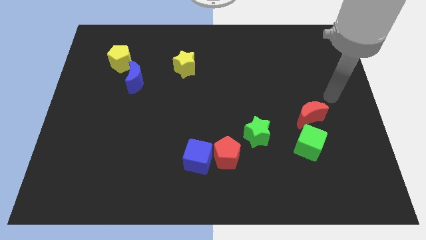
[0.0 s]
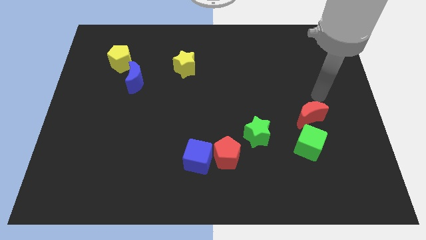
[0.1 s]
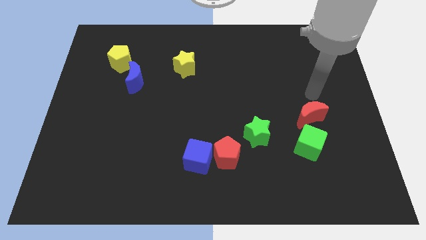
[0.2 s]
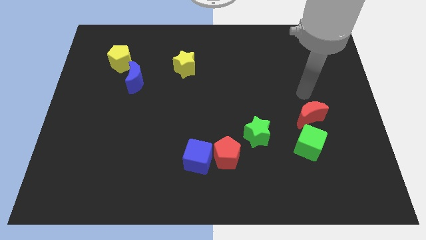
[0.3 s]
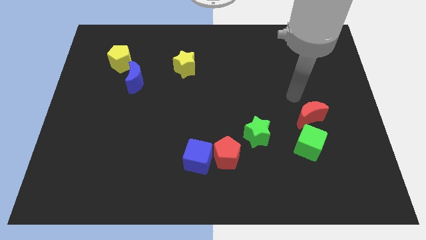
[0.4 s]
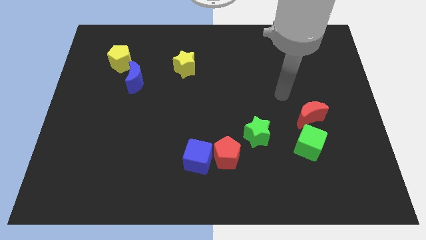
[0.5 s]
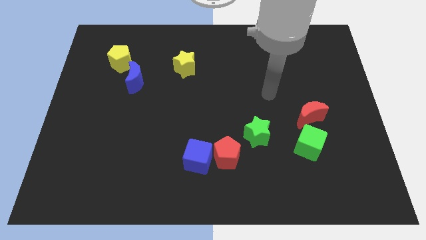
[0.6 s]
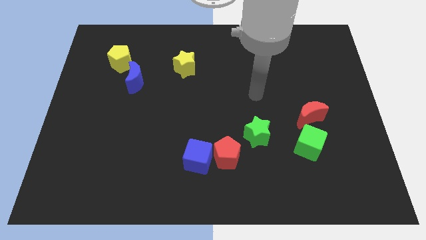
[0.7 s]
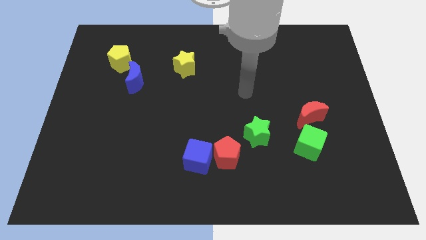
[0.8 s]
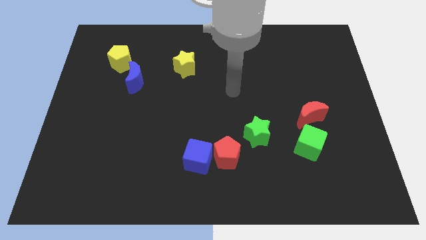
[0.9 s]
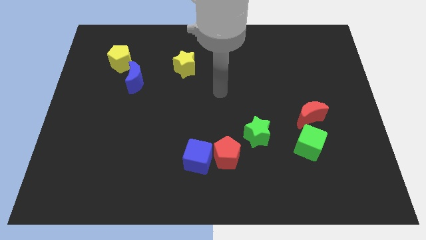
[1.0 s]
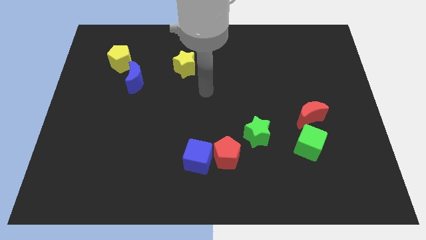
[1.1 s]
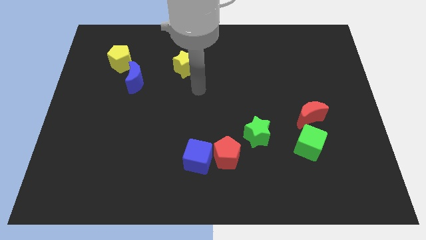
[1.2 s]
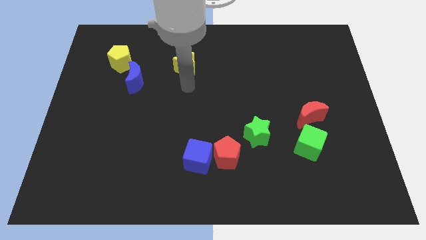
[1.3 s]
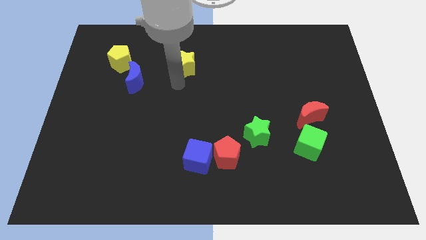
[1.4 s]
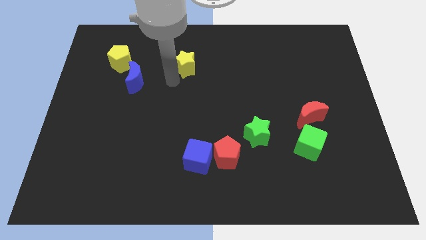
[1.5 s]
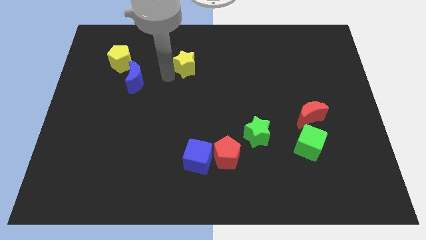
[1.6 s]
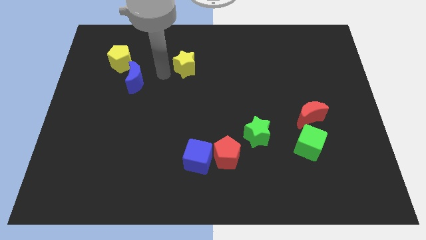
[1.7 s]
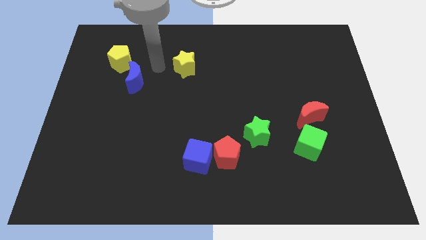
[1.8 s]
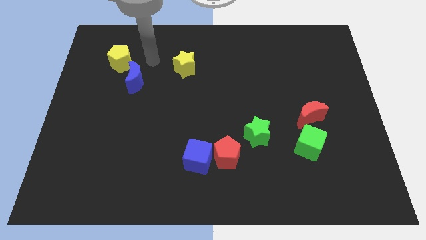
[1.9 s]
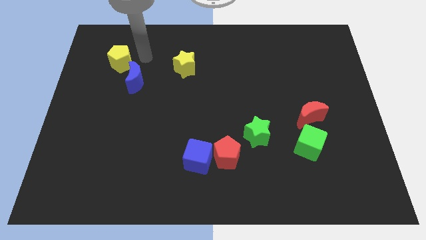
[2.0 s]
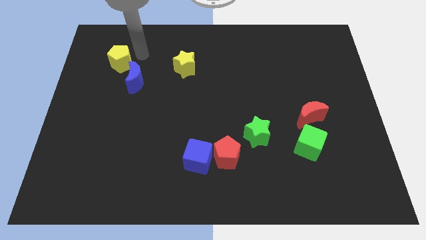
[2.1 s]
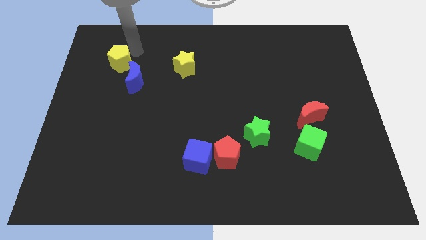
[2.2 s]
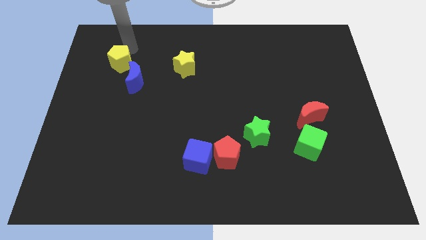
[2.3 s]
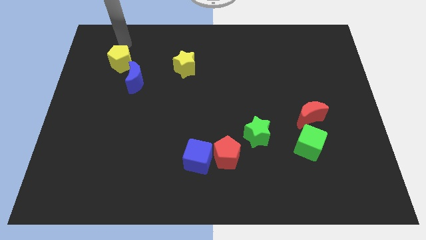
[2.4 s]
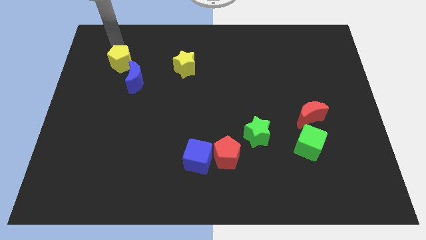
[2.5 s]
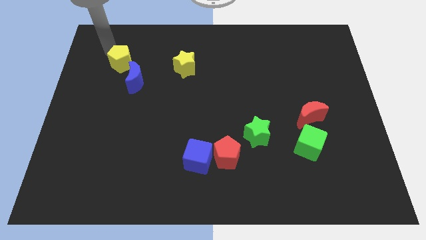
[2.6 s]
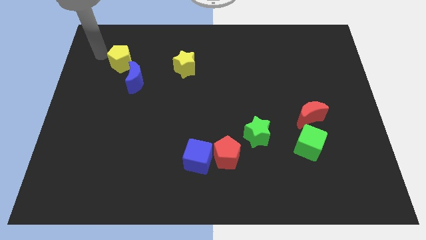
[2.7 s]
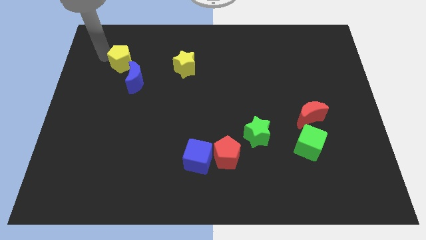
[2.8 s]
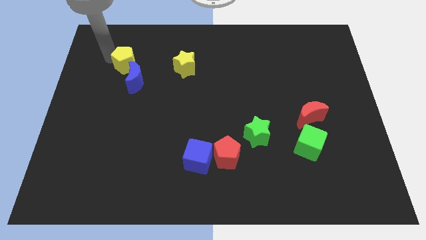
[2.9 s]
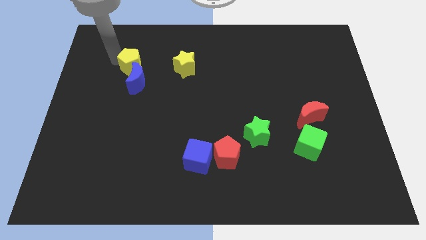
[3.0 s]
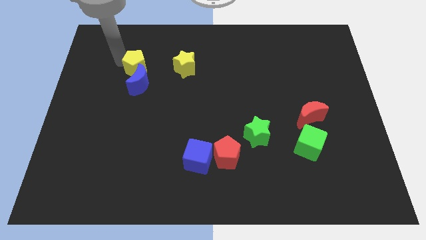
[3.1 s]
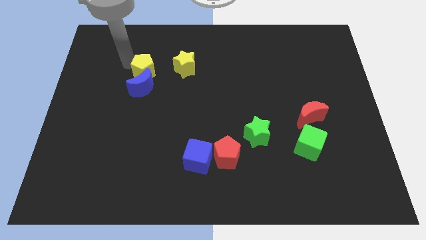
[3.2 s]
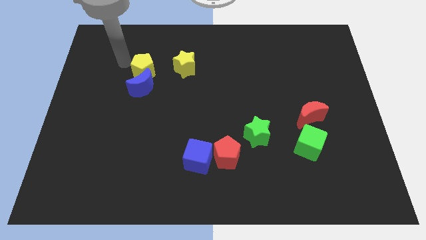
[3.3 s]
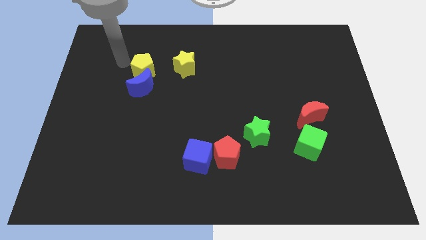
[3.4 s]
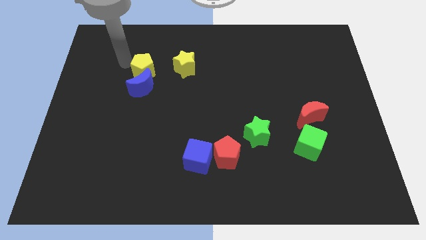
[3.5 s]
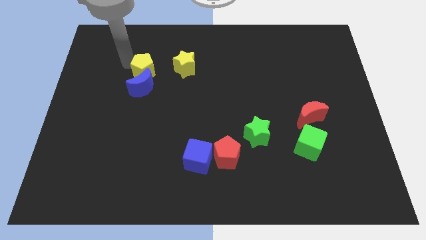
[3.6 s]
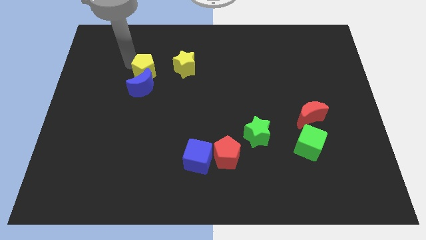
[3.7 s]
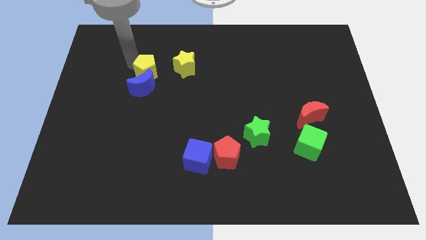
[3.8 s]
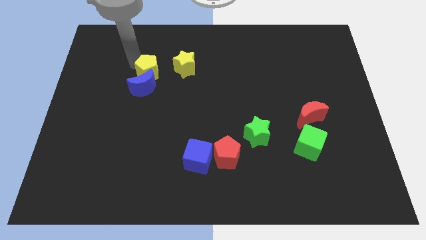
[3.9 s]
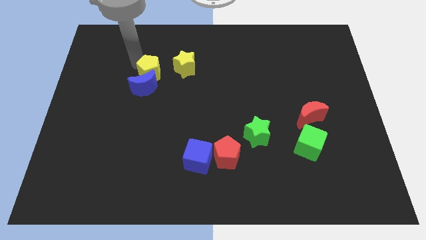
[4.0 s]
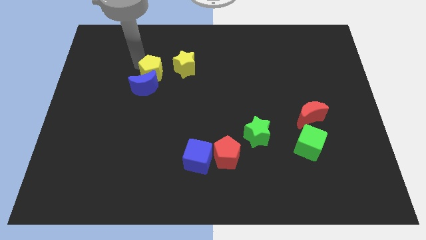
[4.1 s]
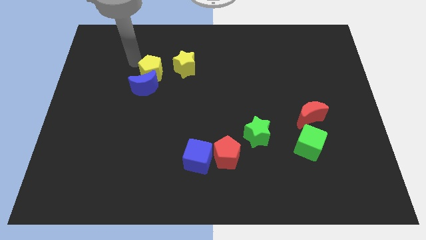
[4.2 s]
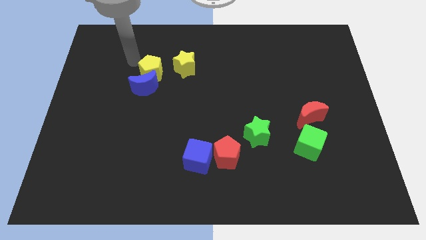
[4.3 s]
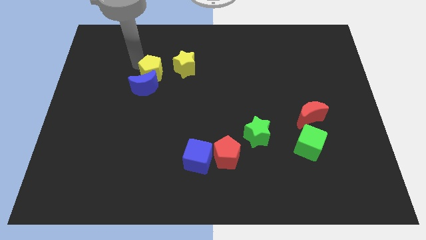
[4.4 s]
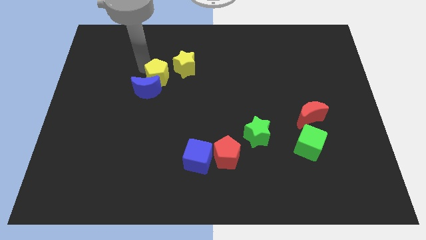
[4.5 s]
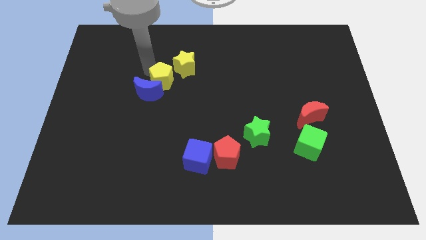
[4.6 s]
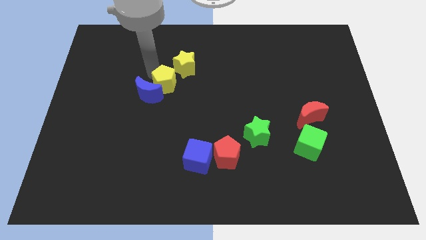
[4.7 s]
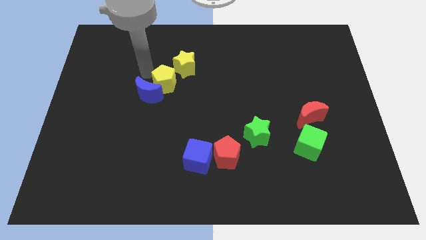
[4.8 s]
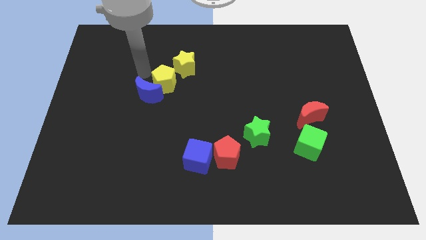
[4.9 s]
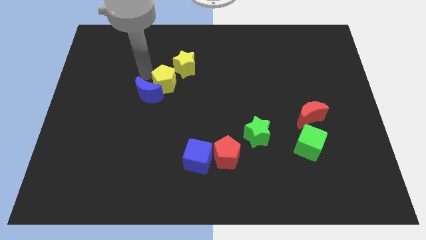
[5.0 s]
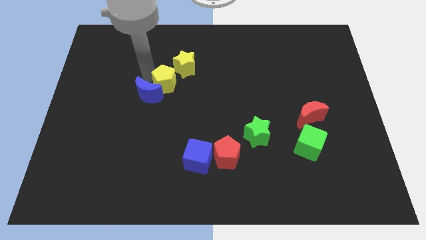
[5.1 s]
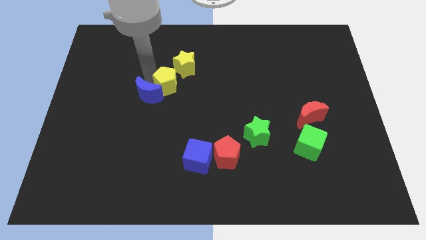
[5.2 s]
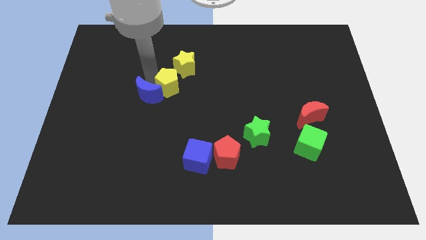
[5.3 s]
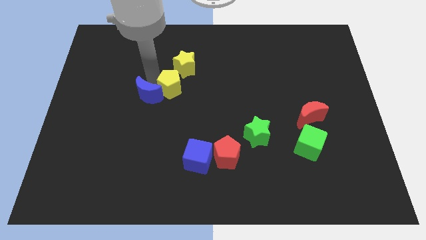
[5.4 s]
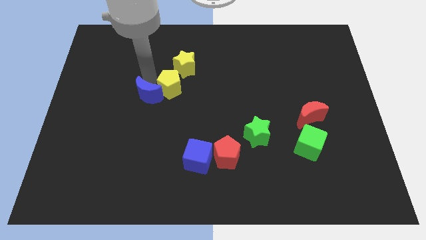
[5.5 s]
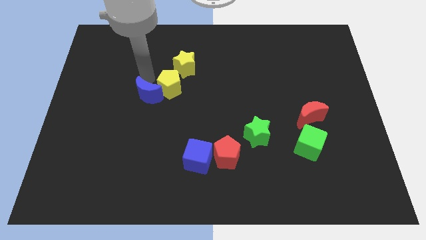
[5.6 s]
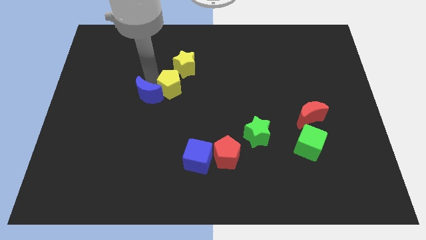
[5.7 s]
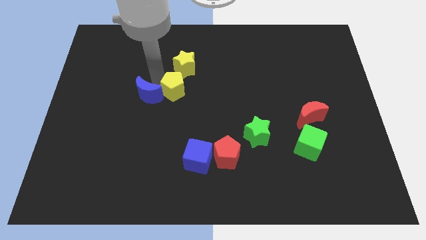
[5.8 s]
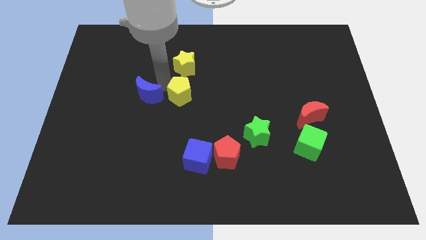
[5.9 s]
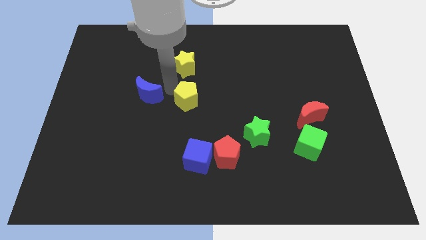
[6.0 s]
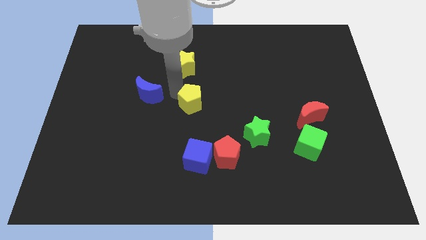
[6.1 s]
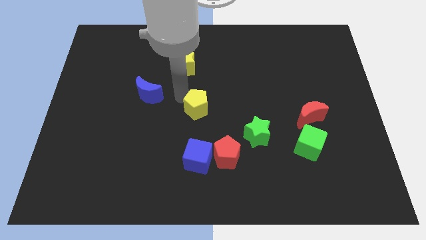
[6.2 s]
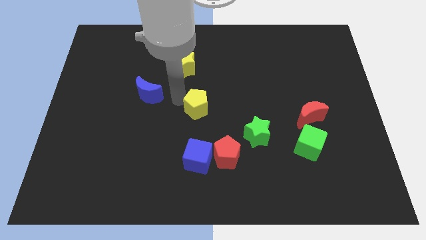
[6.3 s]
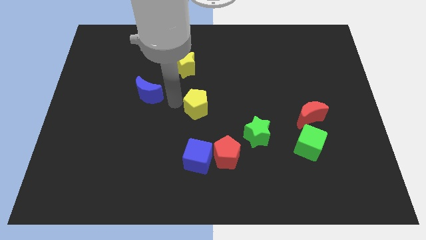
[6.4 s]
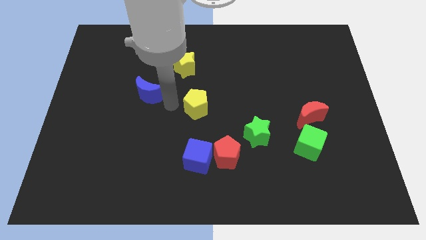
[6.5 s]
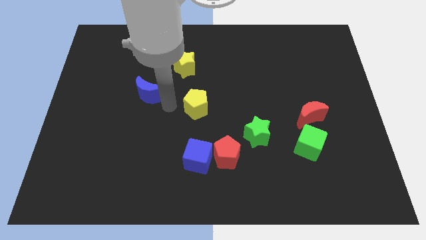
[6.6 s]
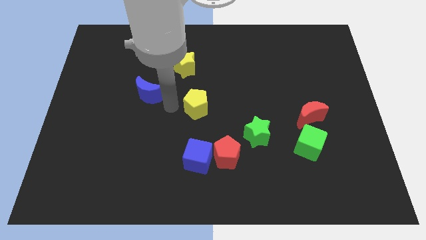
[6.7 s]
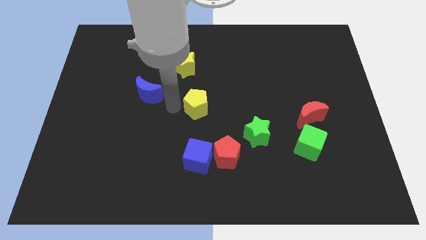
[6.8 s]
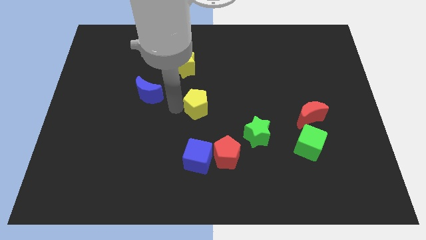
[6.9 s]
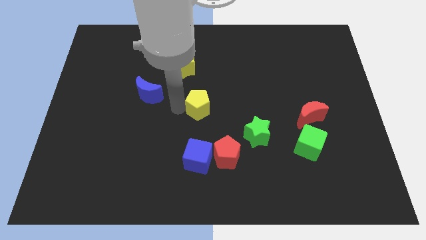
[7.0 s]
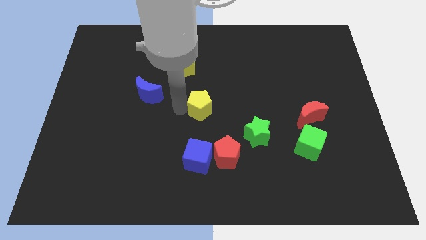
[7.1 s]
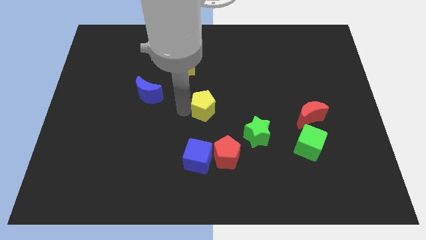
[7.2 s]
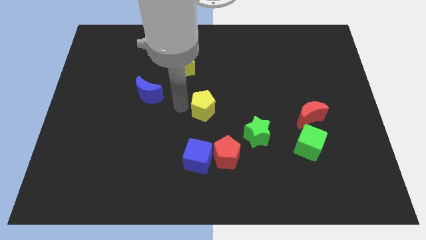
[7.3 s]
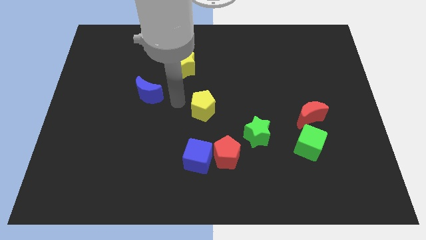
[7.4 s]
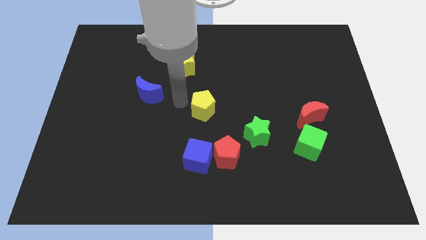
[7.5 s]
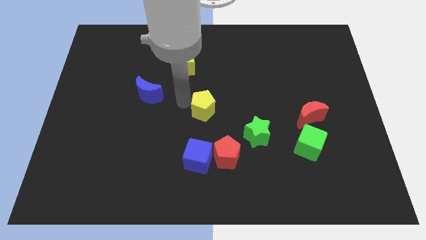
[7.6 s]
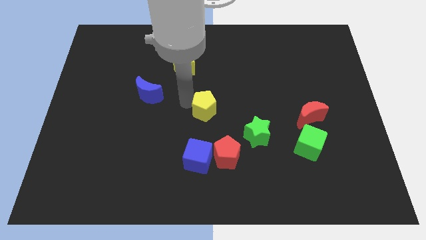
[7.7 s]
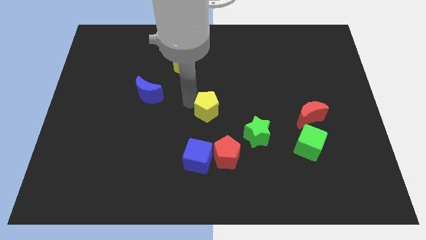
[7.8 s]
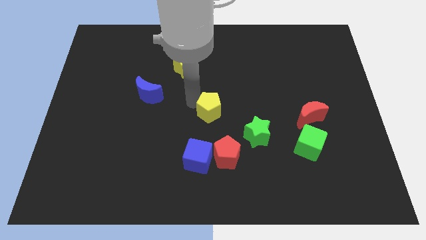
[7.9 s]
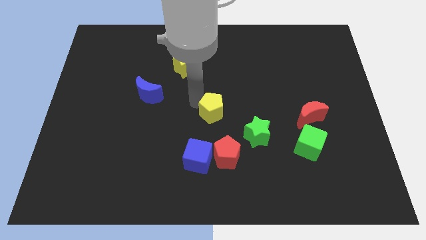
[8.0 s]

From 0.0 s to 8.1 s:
put the yellow pentagon diagonally up and to the left of the green star
